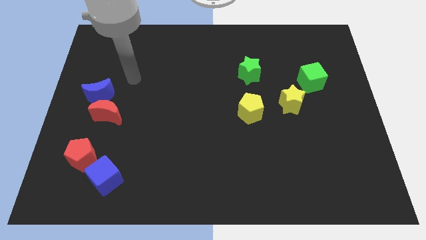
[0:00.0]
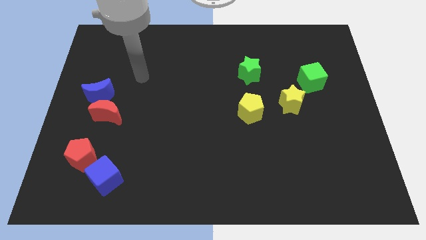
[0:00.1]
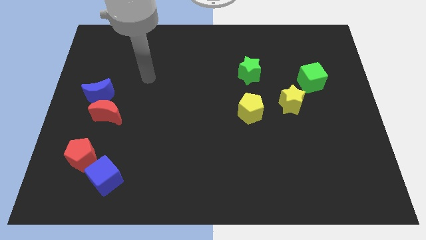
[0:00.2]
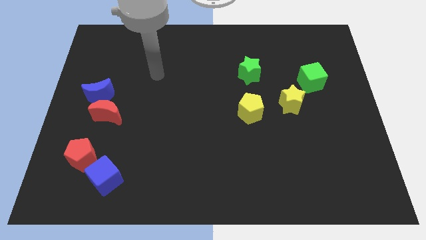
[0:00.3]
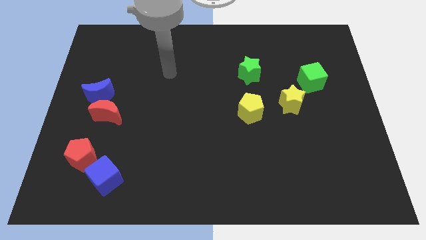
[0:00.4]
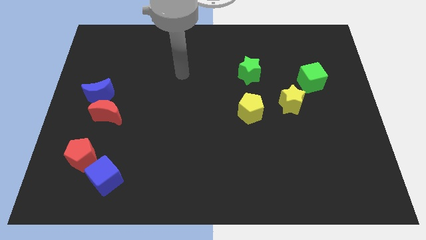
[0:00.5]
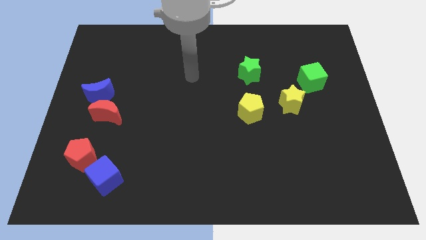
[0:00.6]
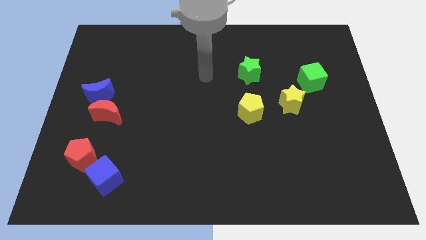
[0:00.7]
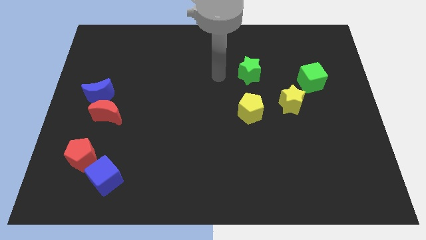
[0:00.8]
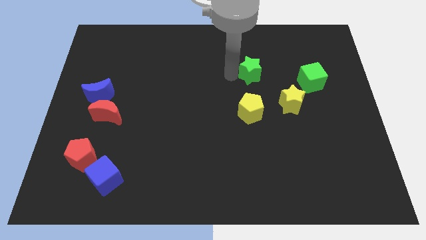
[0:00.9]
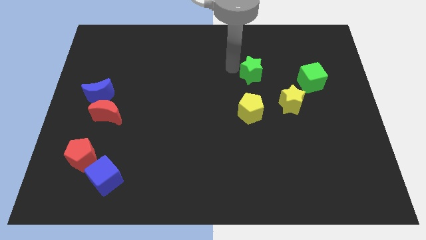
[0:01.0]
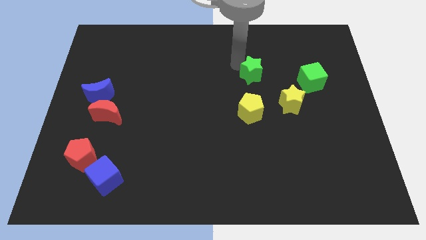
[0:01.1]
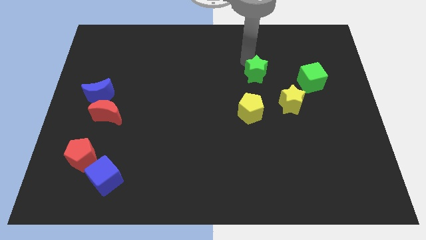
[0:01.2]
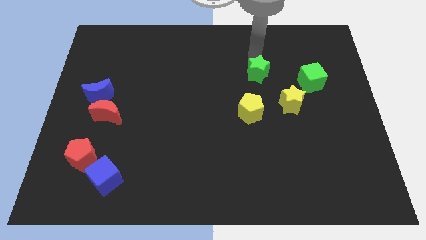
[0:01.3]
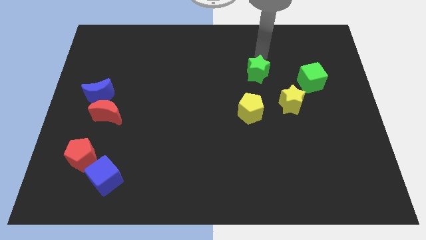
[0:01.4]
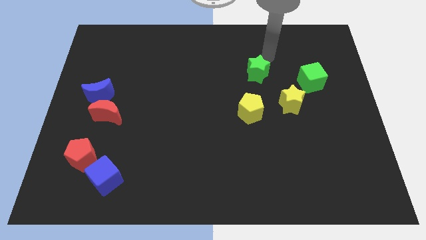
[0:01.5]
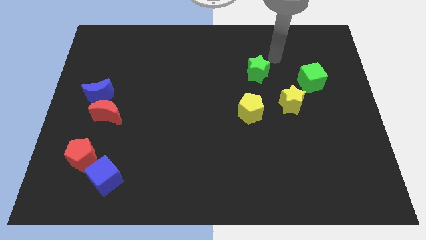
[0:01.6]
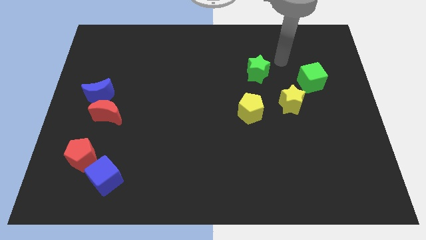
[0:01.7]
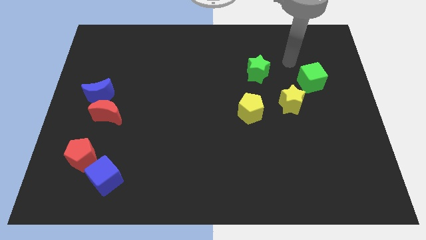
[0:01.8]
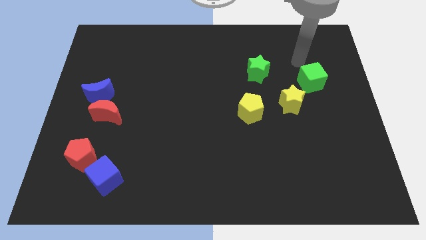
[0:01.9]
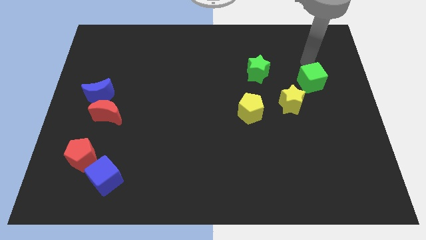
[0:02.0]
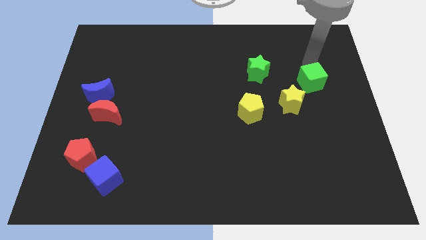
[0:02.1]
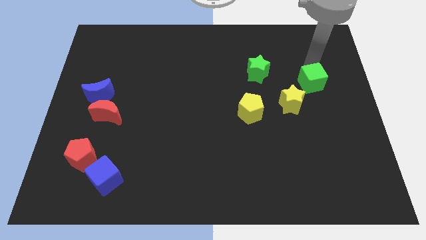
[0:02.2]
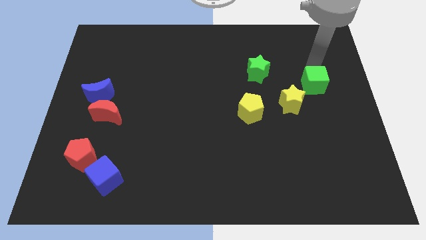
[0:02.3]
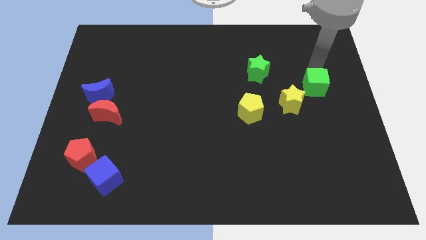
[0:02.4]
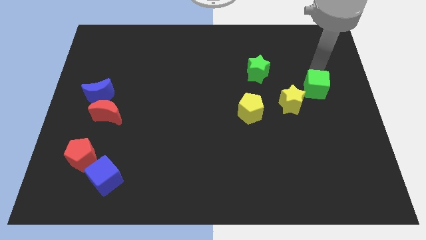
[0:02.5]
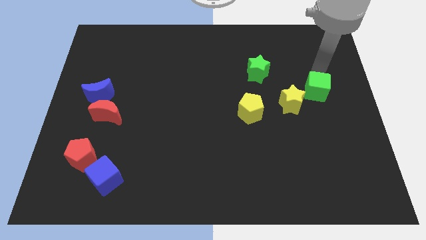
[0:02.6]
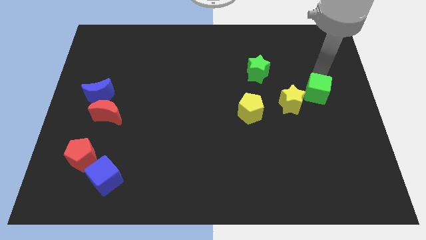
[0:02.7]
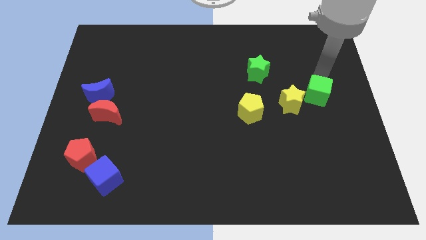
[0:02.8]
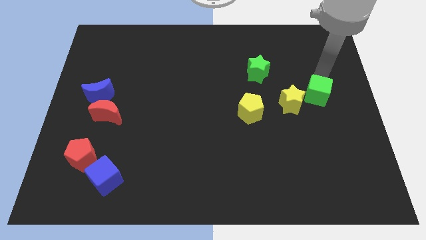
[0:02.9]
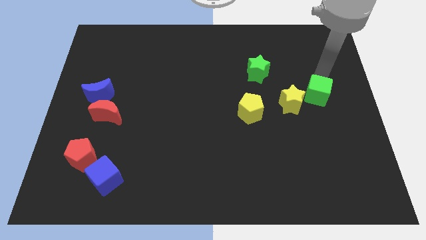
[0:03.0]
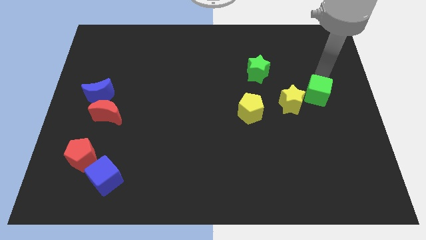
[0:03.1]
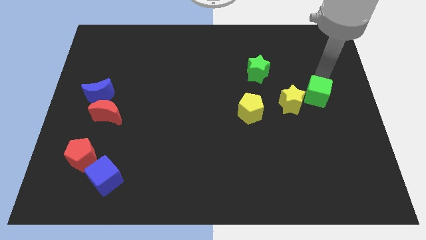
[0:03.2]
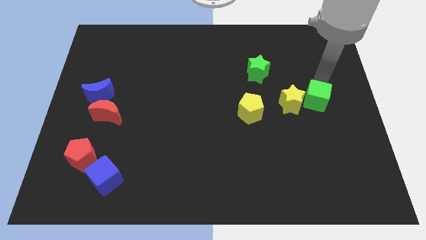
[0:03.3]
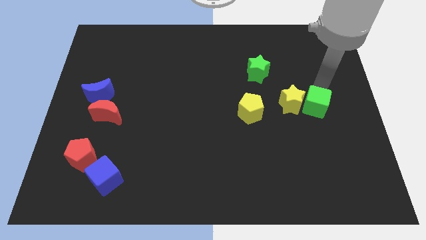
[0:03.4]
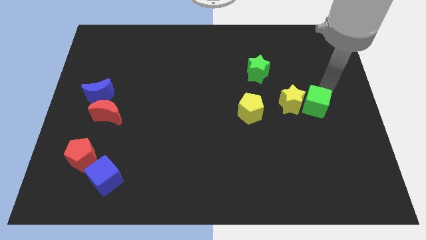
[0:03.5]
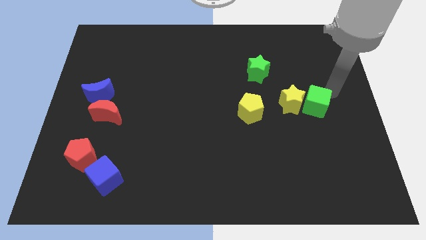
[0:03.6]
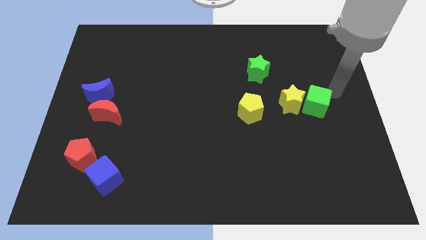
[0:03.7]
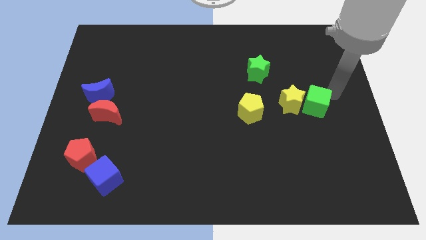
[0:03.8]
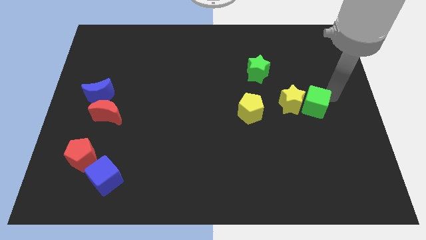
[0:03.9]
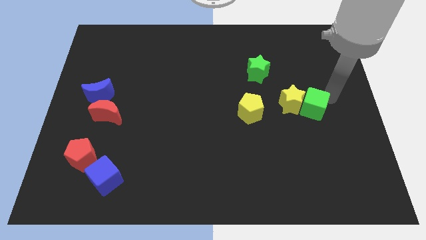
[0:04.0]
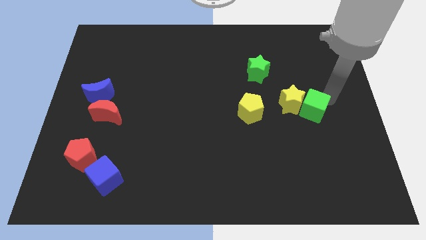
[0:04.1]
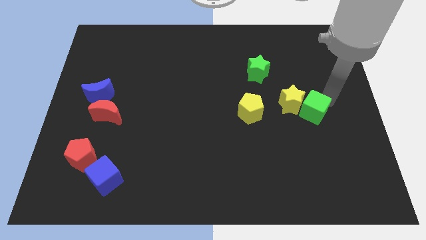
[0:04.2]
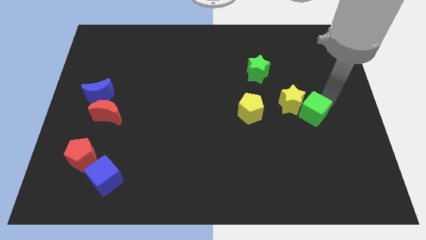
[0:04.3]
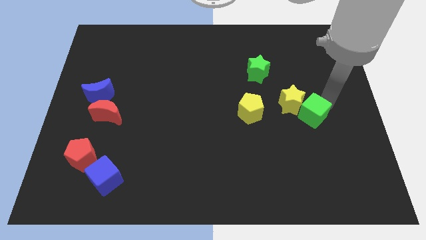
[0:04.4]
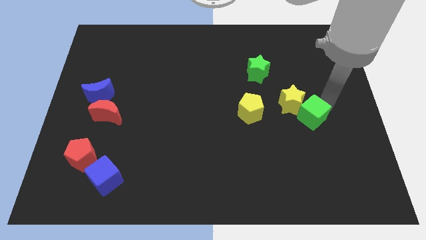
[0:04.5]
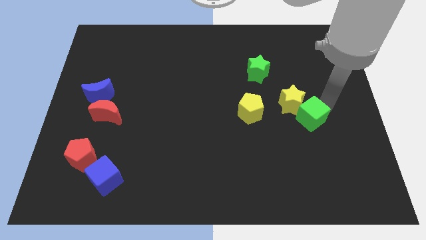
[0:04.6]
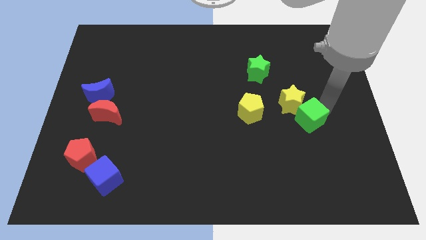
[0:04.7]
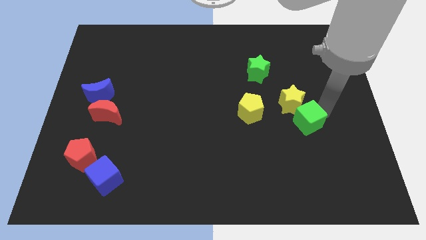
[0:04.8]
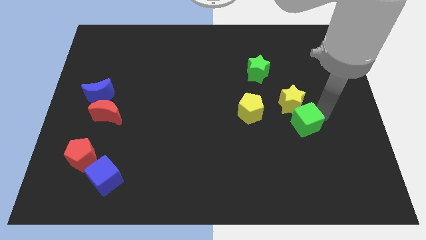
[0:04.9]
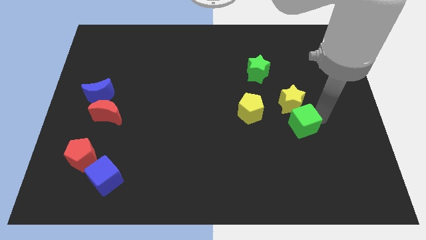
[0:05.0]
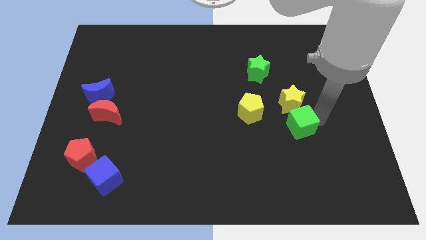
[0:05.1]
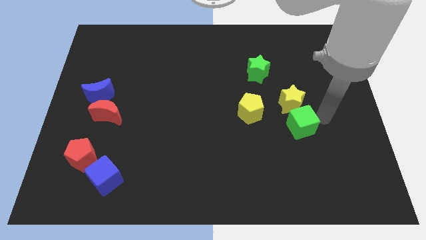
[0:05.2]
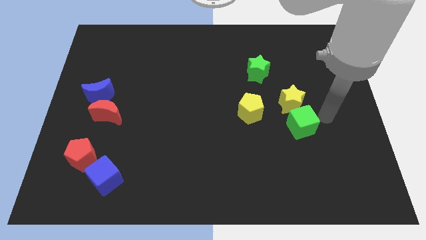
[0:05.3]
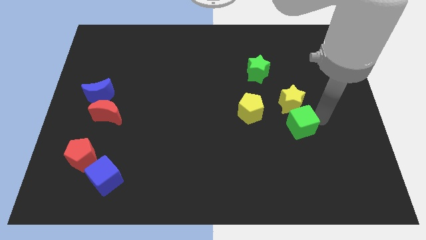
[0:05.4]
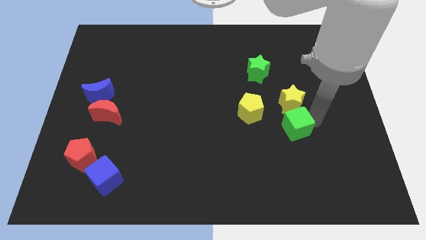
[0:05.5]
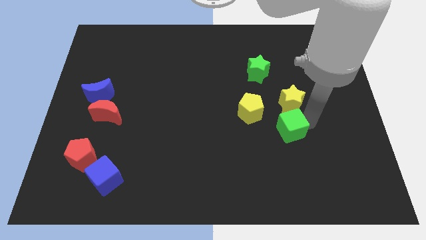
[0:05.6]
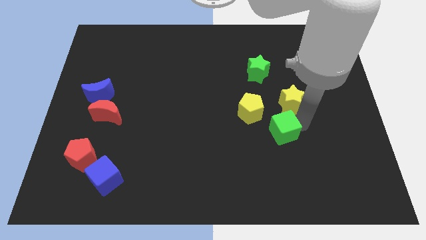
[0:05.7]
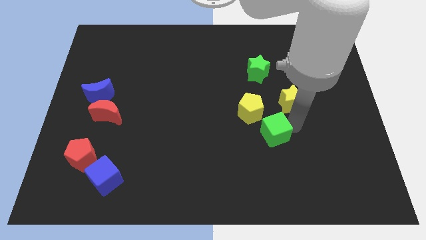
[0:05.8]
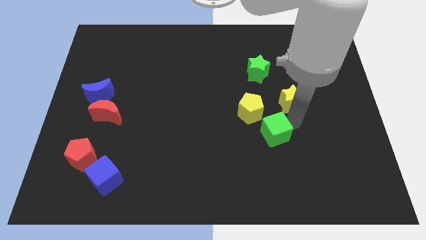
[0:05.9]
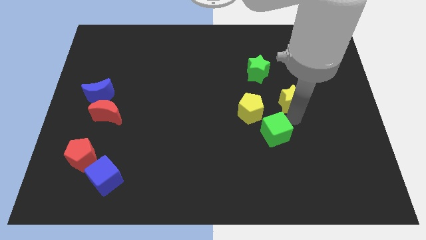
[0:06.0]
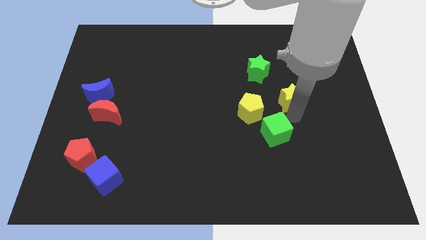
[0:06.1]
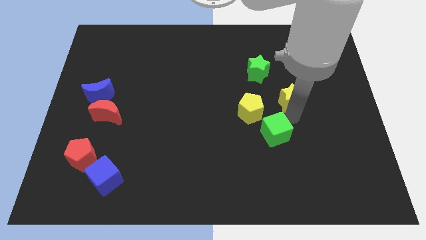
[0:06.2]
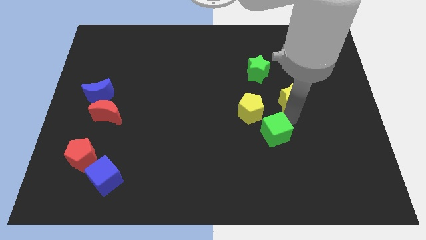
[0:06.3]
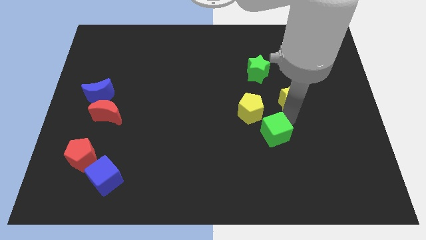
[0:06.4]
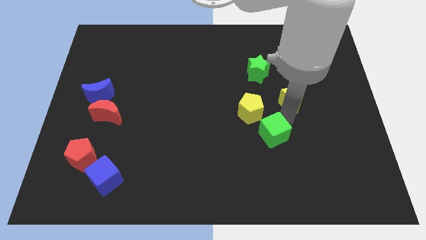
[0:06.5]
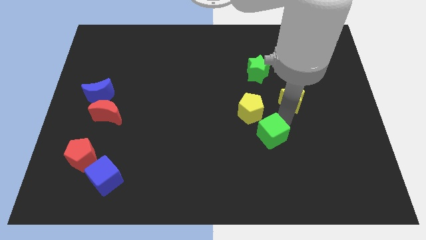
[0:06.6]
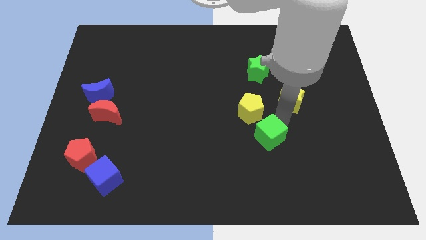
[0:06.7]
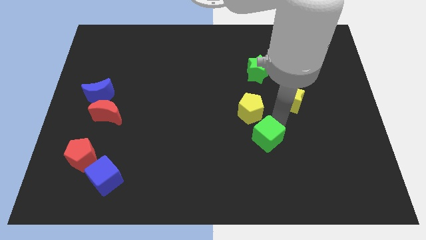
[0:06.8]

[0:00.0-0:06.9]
move the green cube down and left

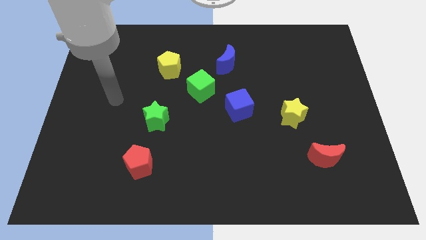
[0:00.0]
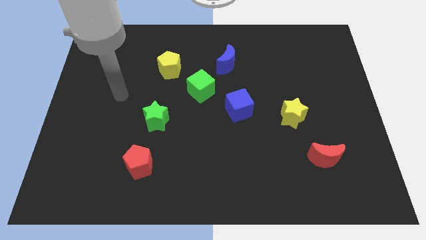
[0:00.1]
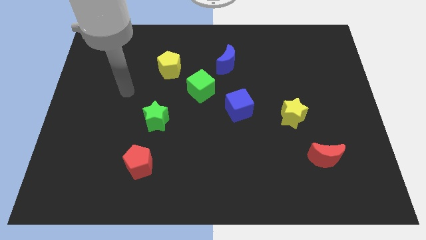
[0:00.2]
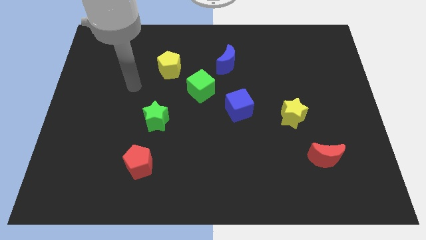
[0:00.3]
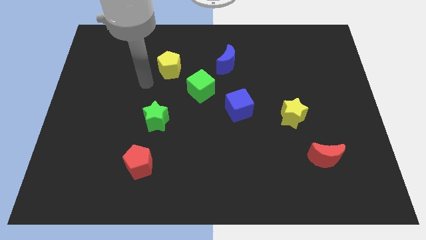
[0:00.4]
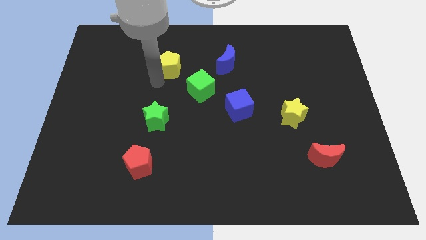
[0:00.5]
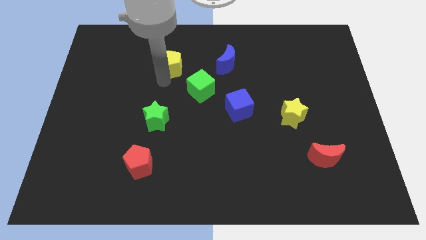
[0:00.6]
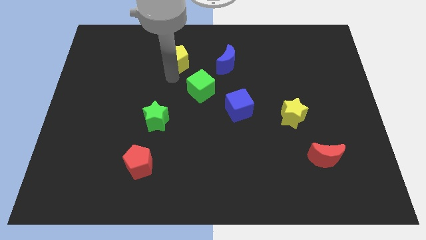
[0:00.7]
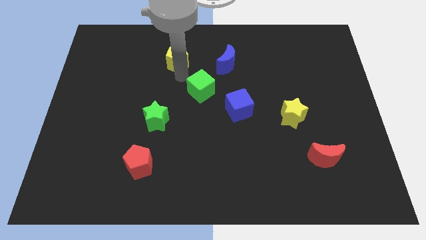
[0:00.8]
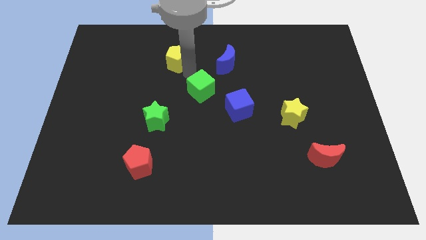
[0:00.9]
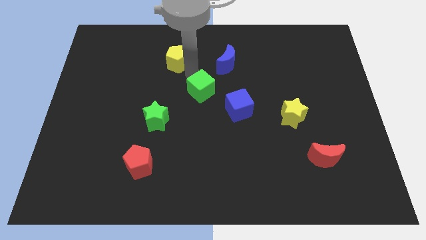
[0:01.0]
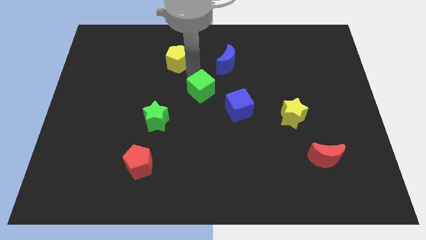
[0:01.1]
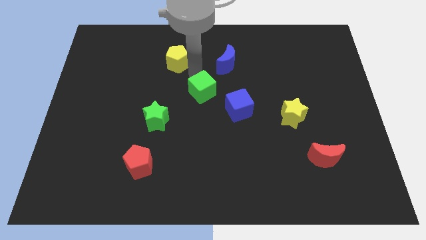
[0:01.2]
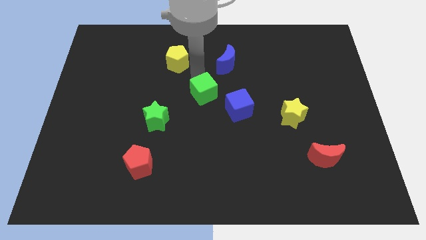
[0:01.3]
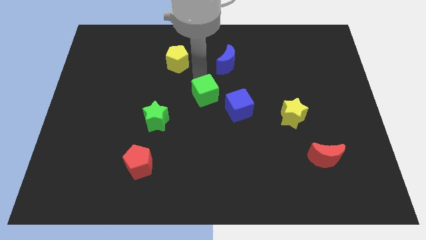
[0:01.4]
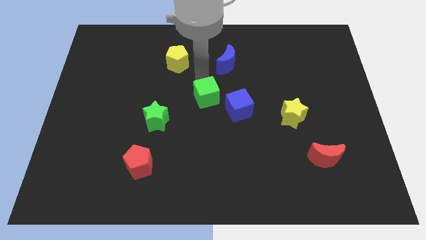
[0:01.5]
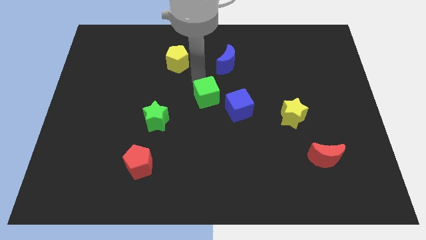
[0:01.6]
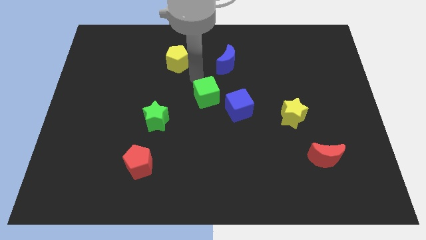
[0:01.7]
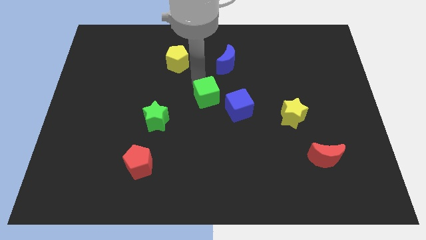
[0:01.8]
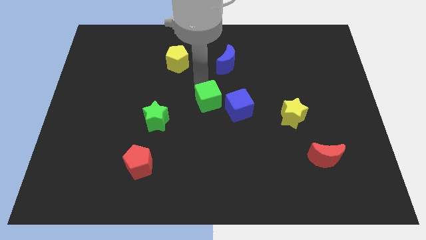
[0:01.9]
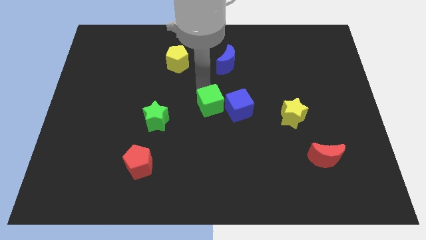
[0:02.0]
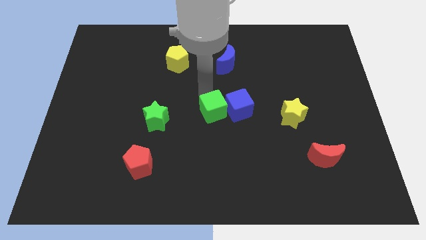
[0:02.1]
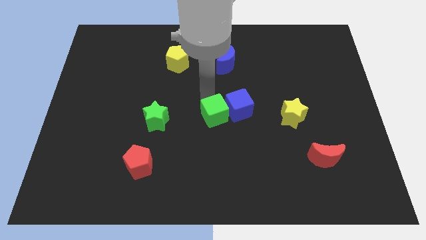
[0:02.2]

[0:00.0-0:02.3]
slide the green cube slightly downwards and to the right
